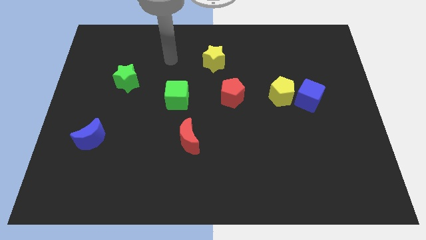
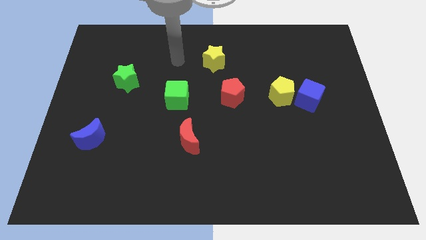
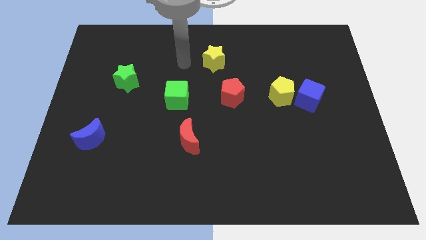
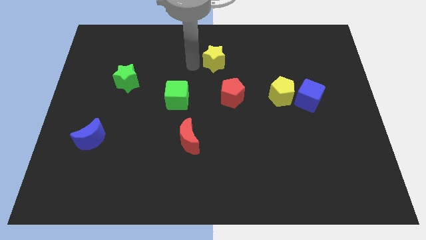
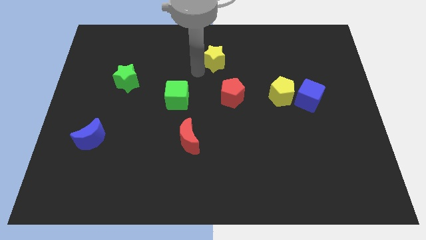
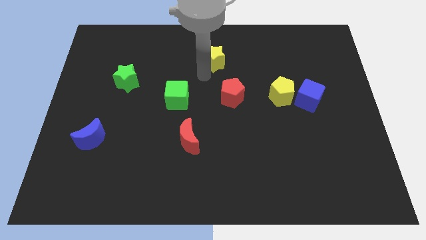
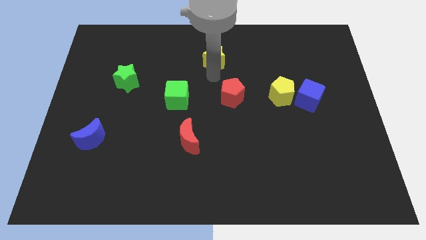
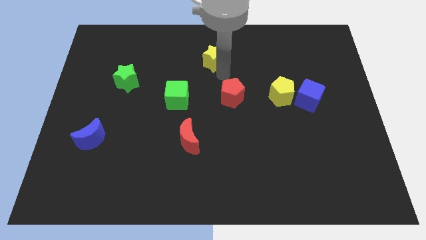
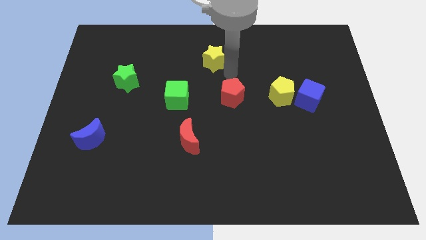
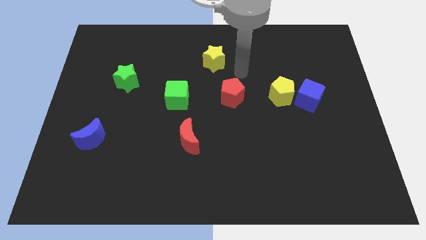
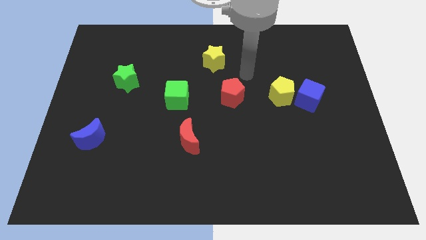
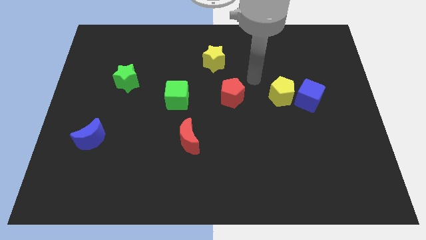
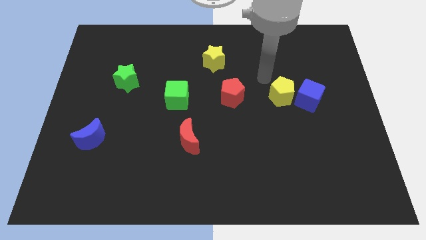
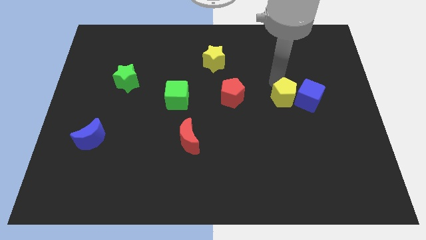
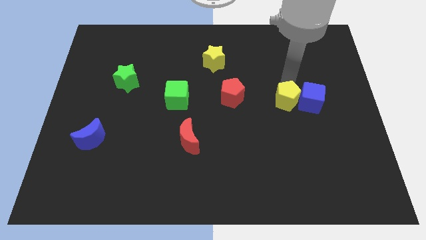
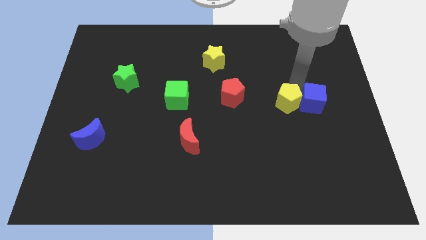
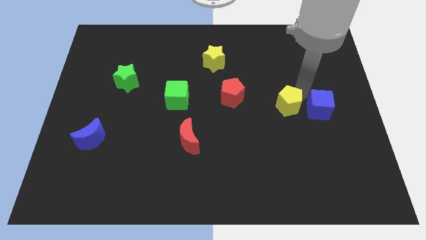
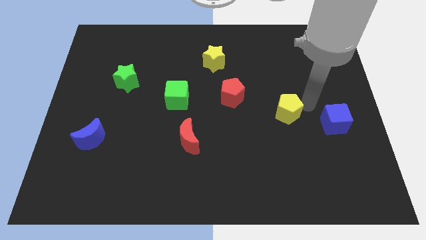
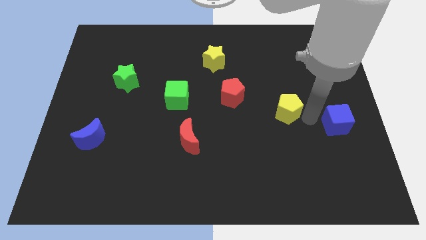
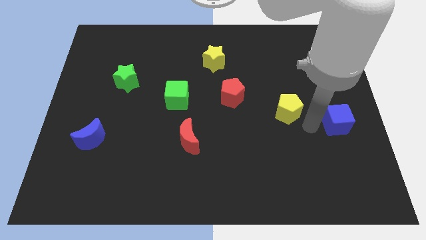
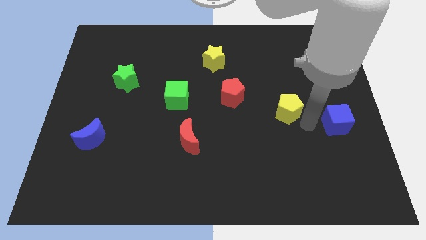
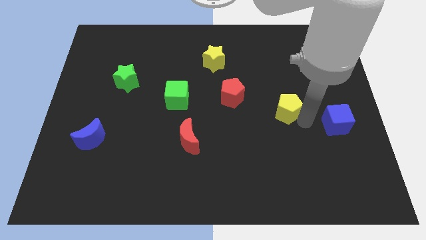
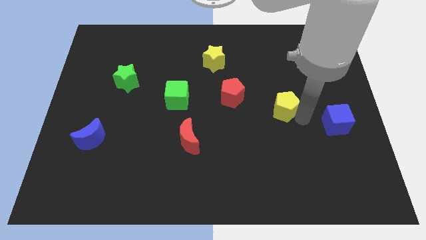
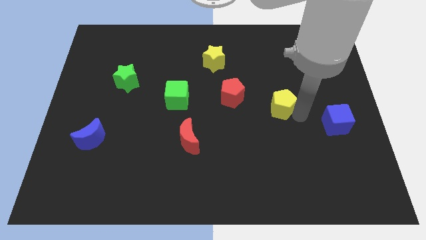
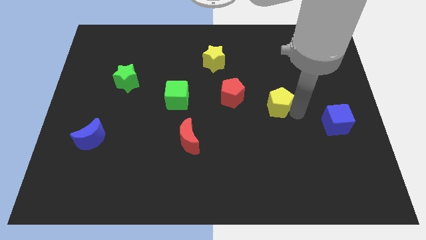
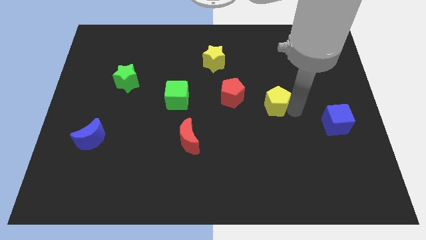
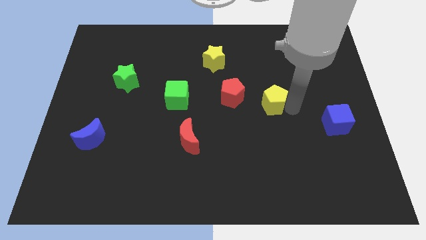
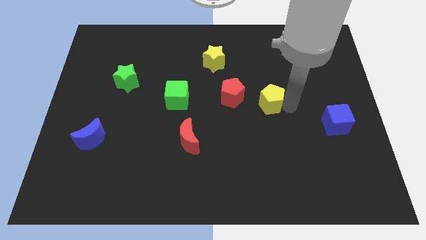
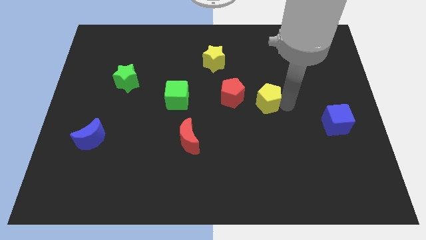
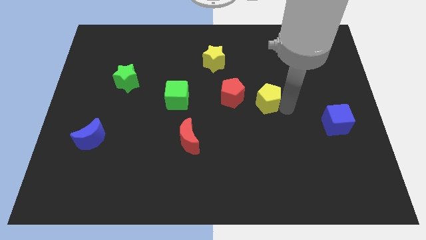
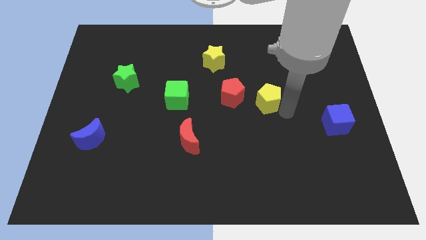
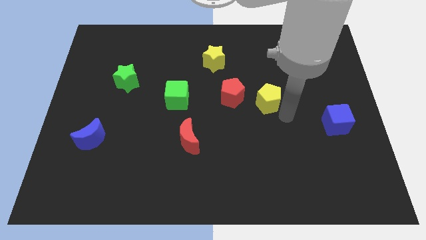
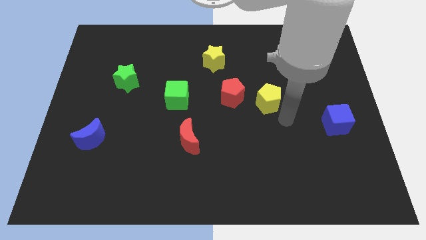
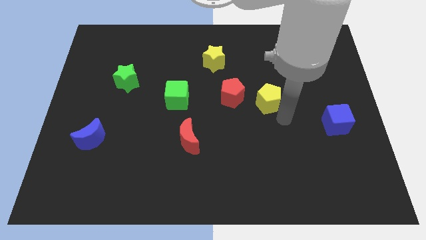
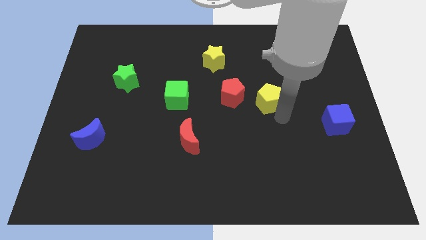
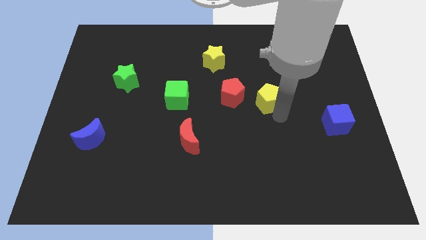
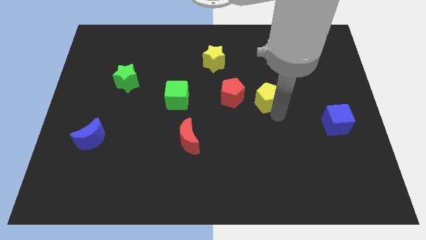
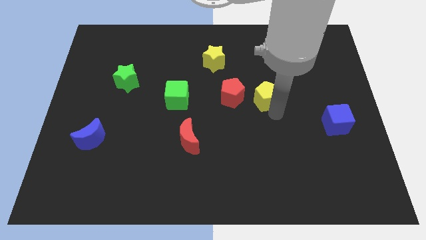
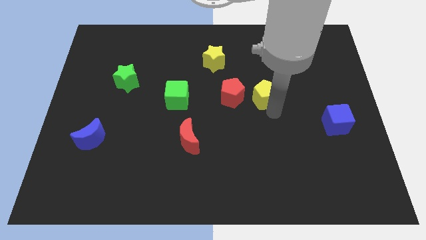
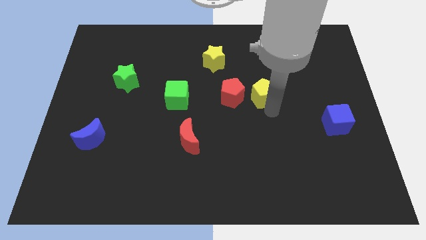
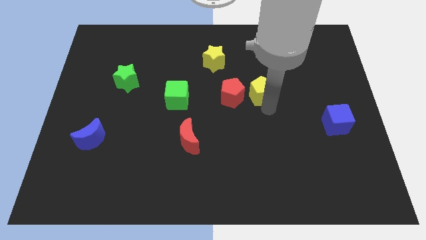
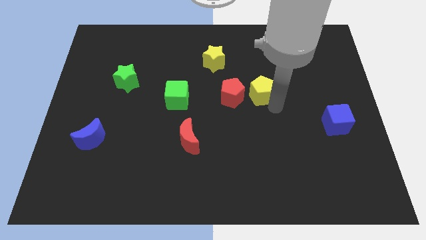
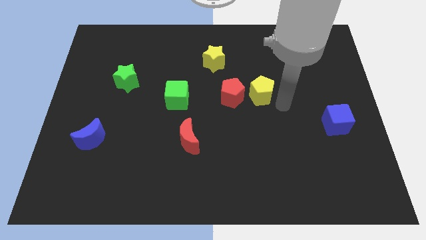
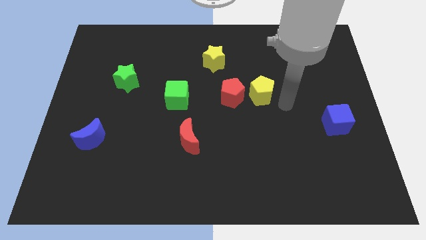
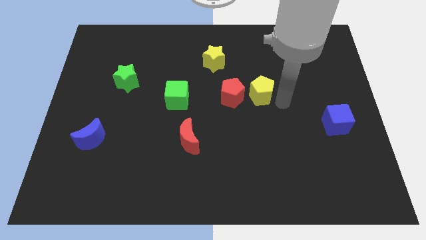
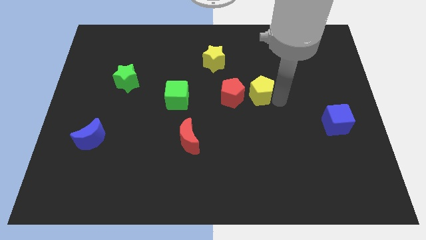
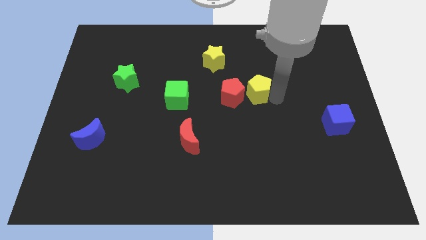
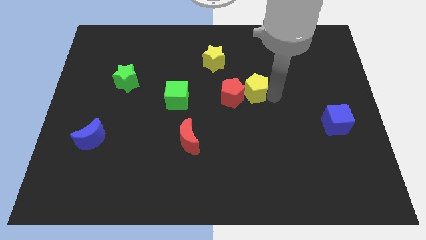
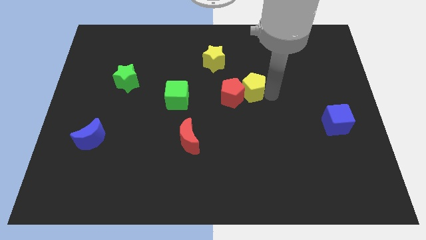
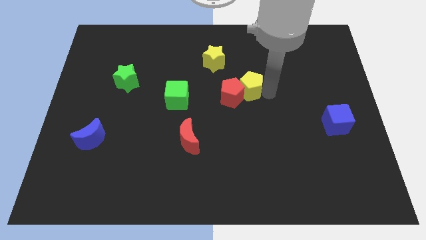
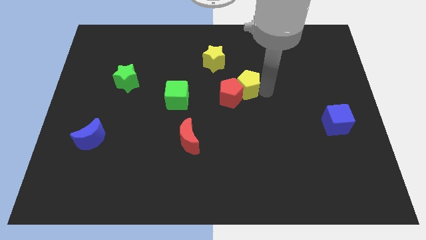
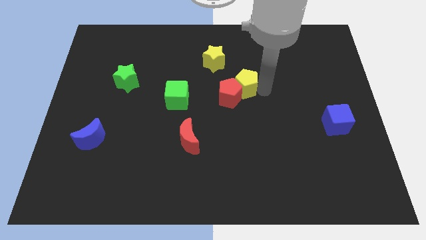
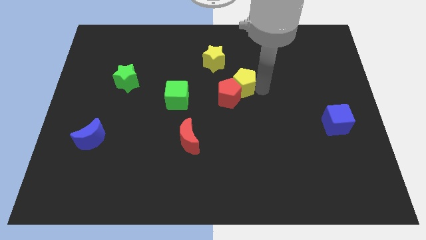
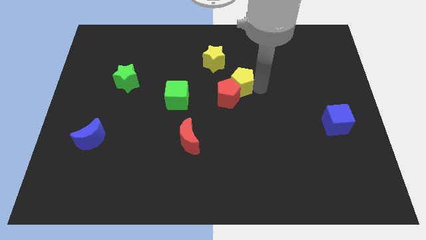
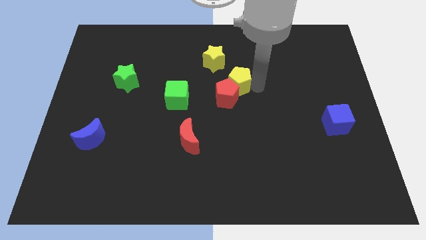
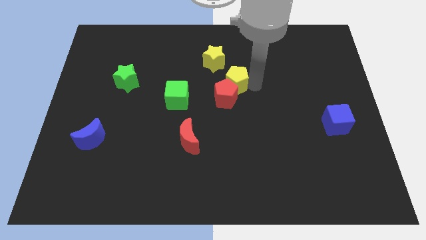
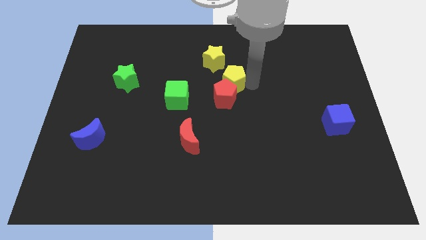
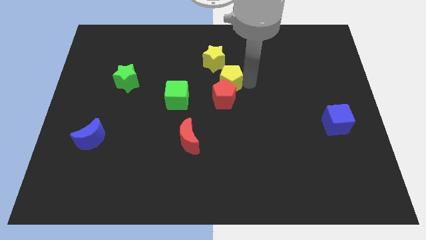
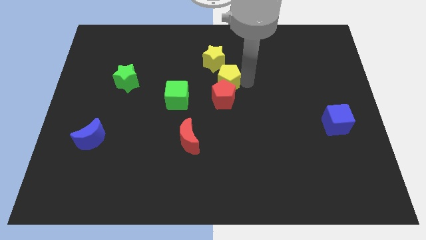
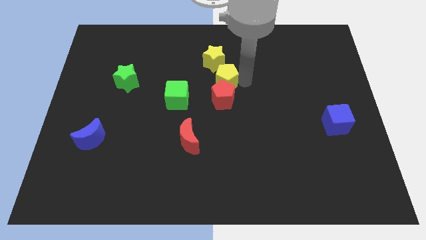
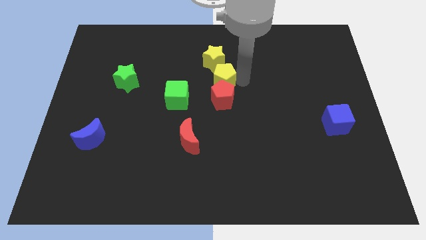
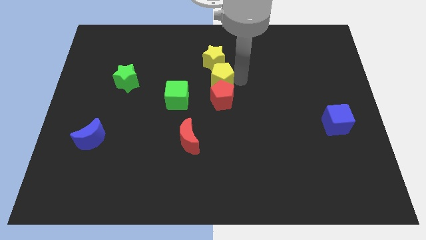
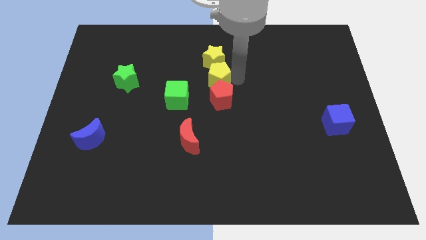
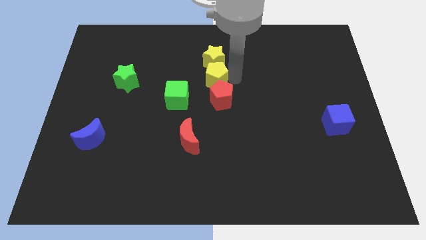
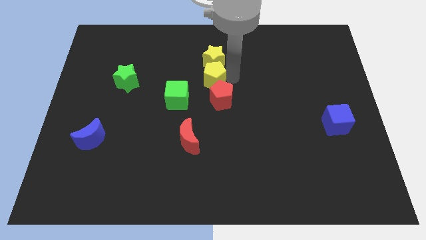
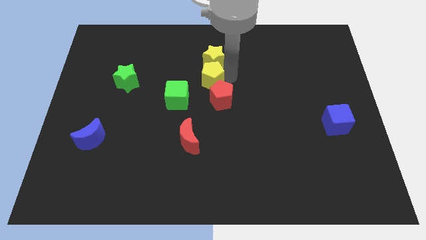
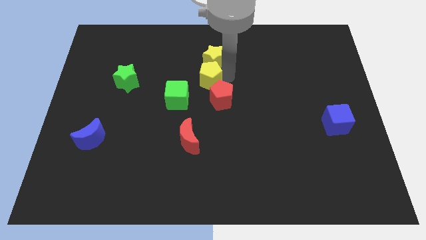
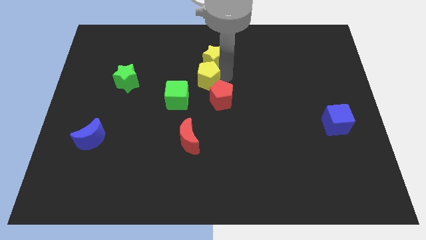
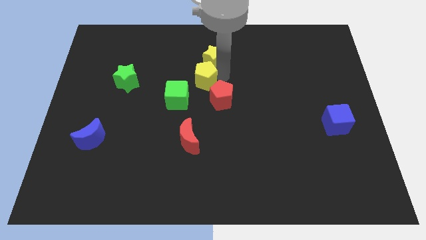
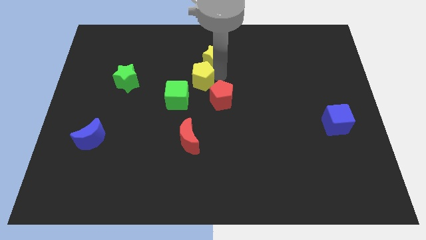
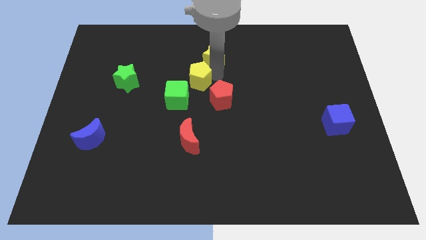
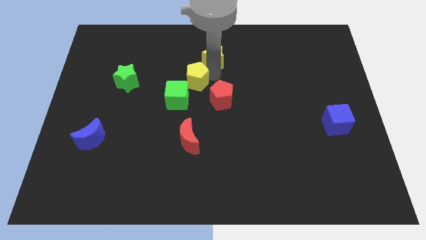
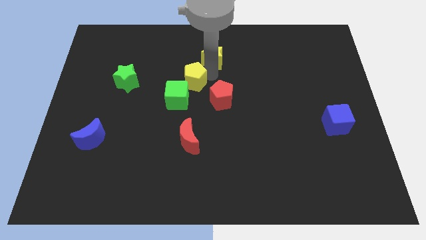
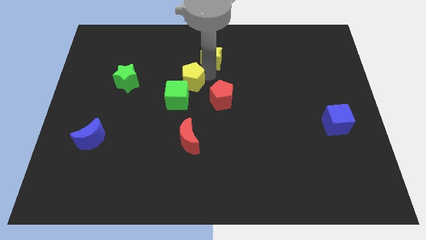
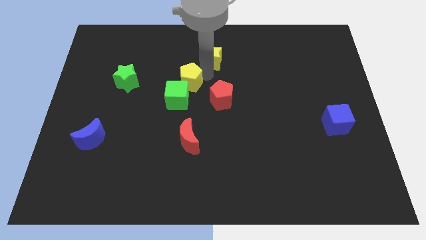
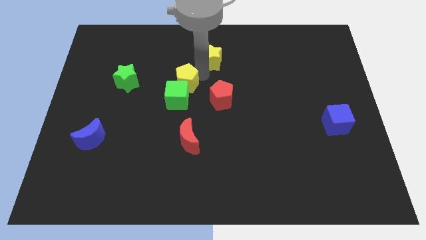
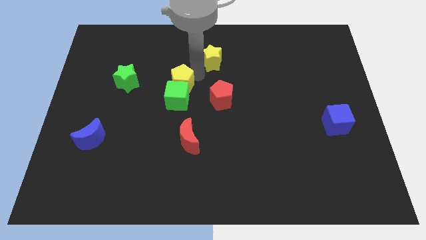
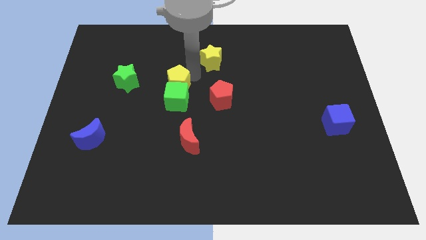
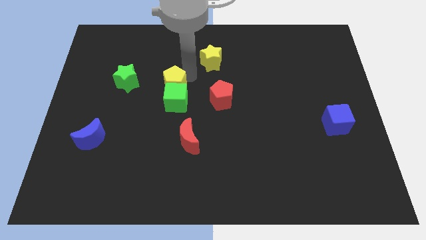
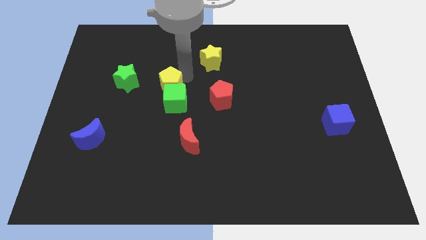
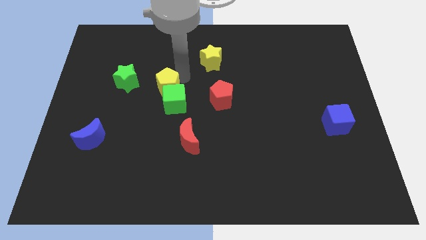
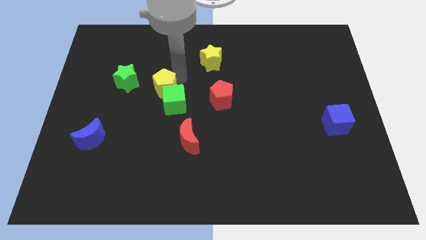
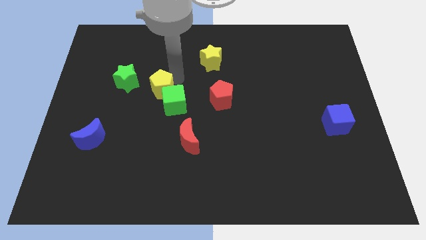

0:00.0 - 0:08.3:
push the yellow pentagon diagonally down and to the right of the green star
